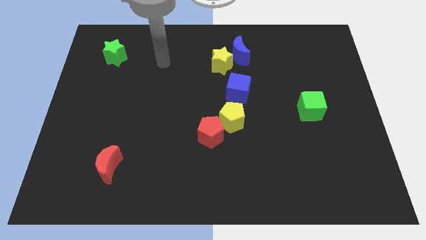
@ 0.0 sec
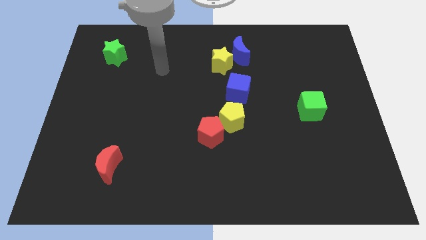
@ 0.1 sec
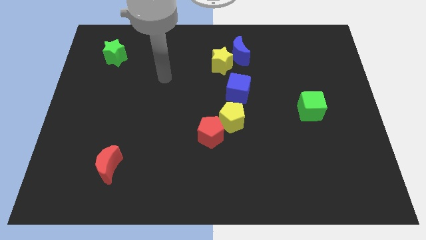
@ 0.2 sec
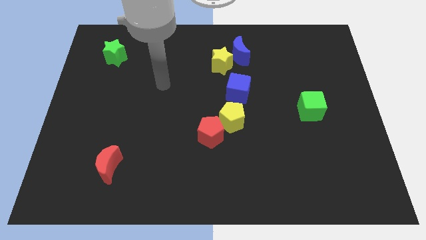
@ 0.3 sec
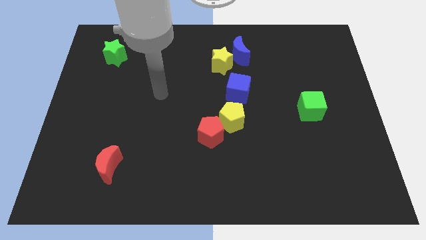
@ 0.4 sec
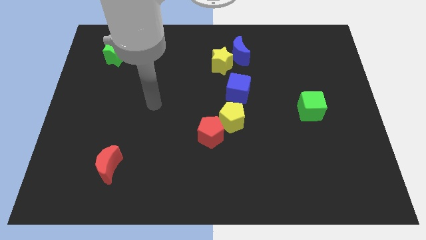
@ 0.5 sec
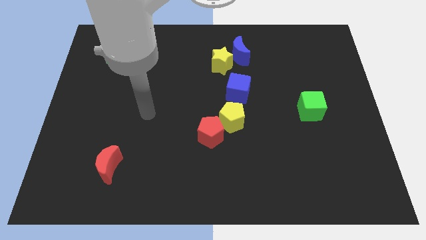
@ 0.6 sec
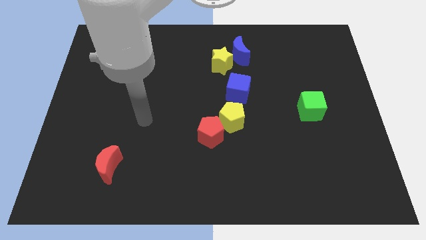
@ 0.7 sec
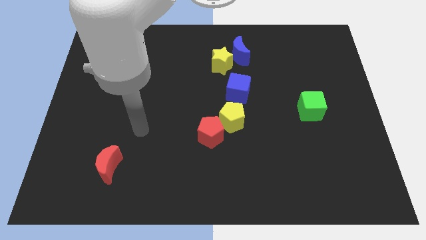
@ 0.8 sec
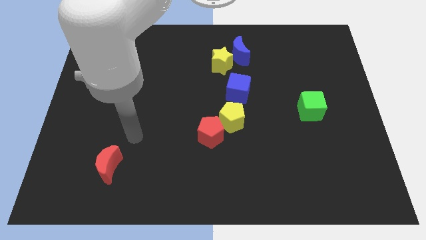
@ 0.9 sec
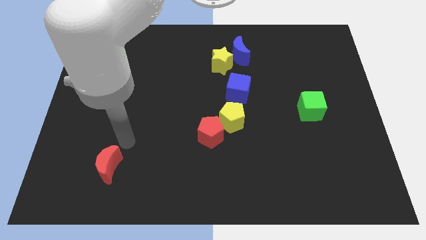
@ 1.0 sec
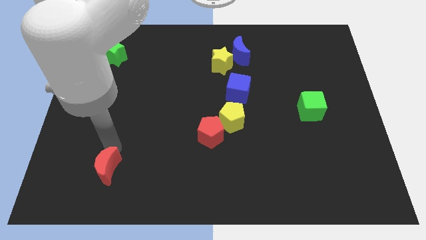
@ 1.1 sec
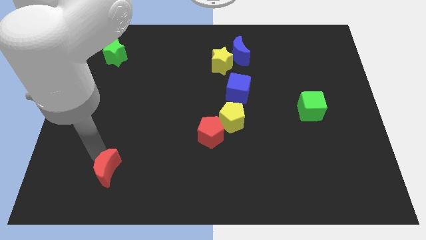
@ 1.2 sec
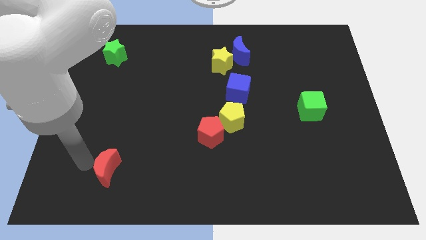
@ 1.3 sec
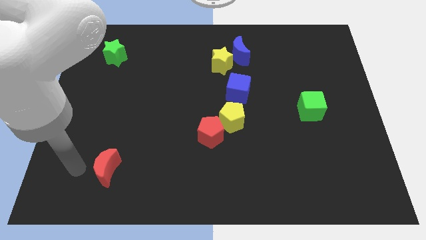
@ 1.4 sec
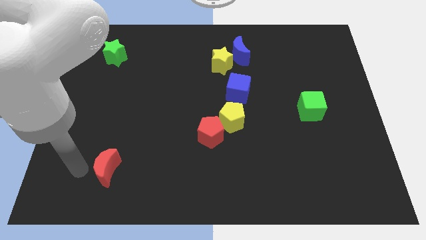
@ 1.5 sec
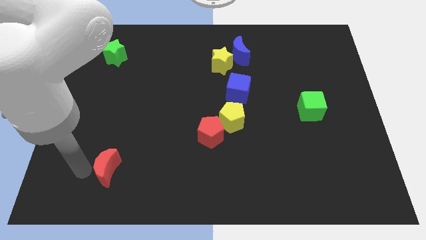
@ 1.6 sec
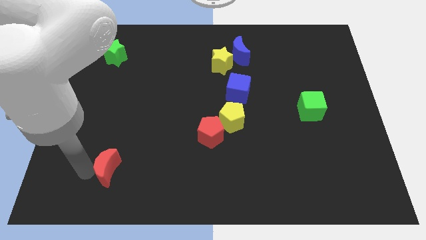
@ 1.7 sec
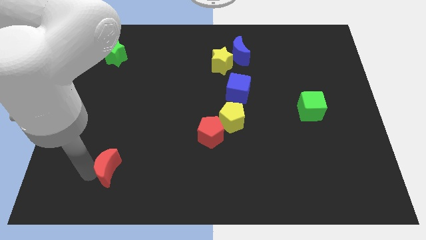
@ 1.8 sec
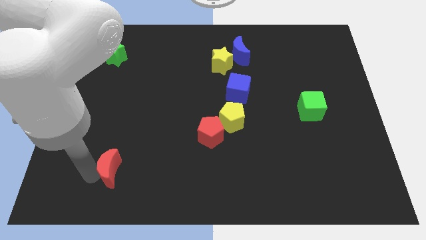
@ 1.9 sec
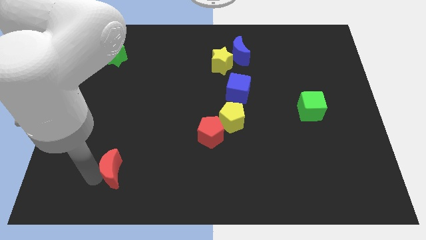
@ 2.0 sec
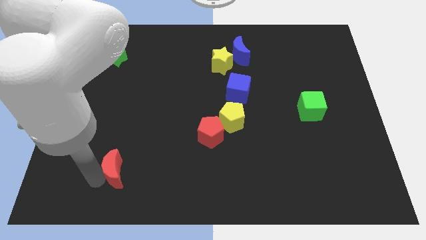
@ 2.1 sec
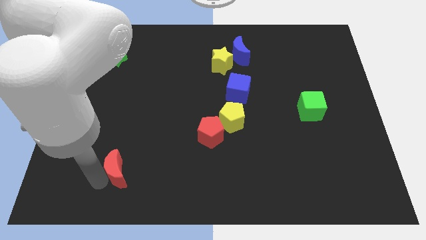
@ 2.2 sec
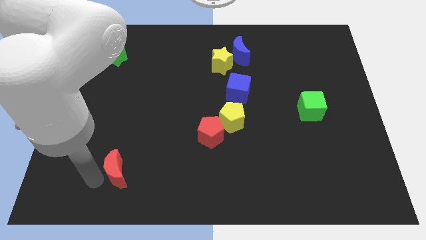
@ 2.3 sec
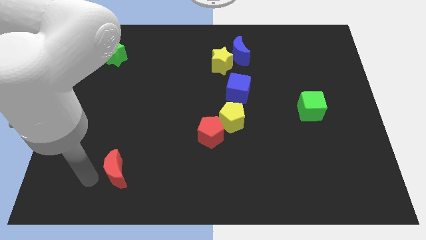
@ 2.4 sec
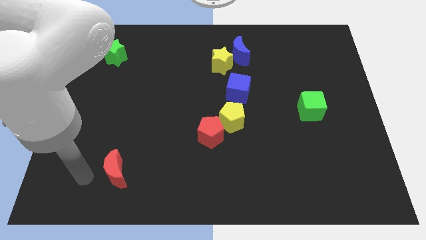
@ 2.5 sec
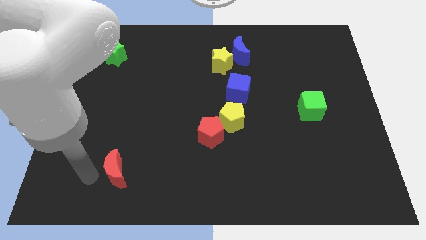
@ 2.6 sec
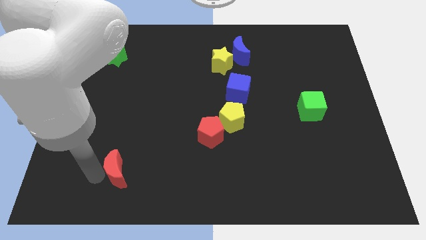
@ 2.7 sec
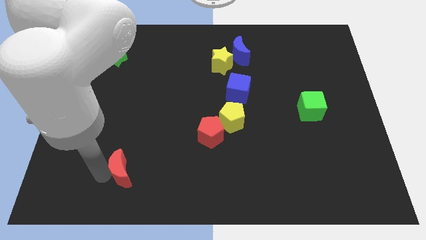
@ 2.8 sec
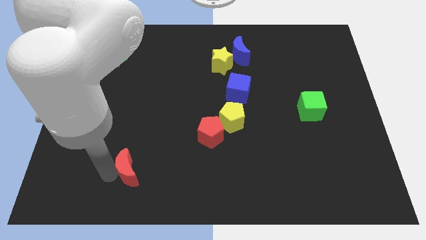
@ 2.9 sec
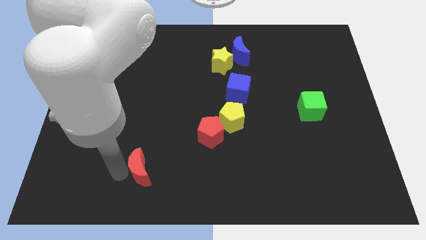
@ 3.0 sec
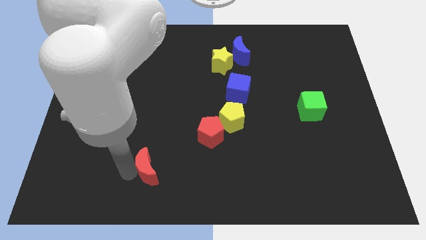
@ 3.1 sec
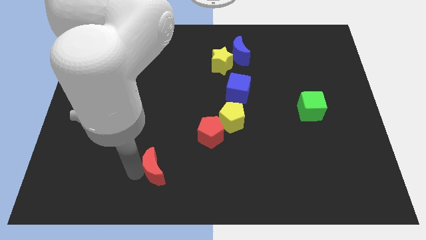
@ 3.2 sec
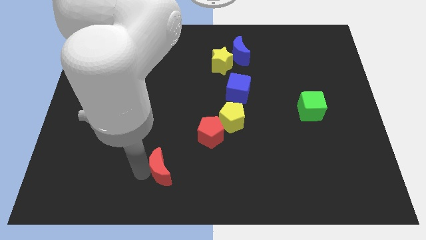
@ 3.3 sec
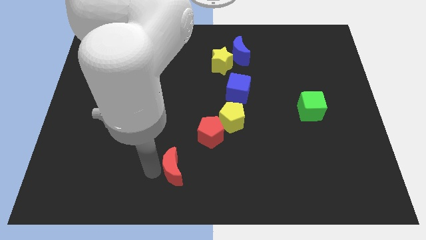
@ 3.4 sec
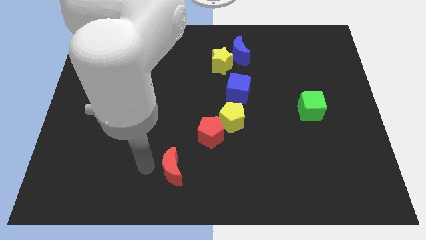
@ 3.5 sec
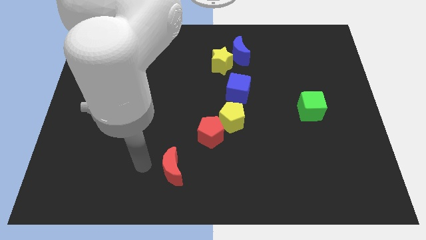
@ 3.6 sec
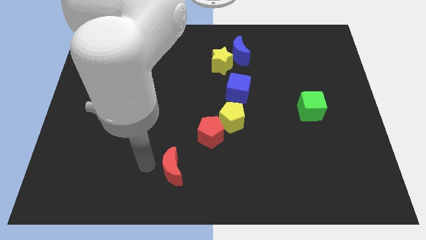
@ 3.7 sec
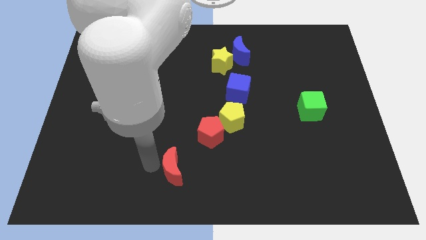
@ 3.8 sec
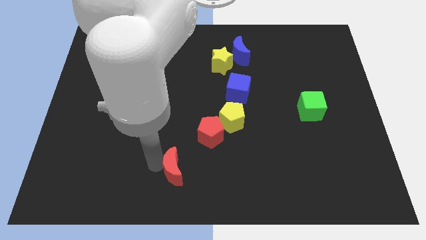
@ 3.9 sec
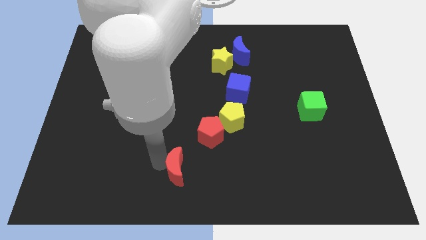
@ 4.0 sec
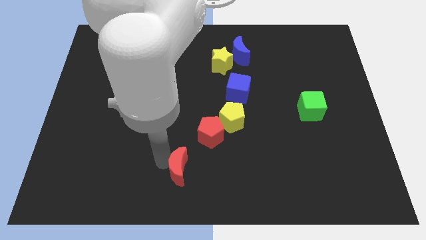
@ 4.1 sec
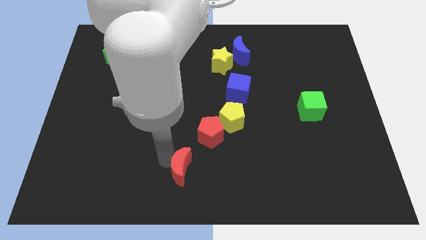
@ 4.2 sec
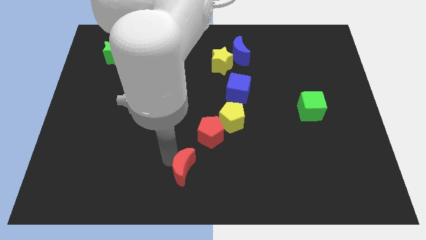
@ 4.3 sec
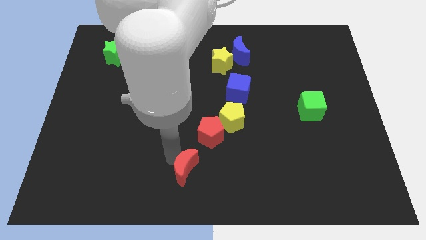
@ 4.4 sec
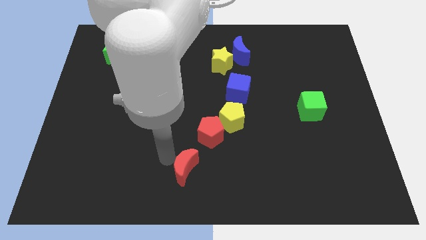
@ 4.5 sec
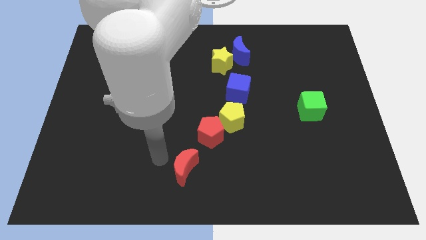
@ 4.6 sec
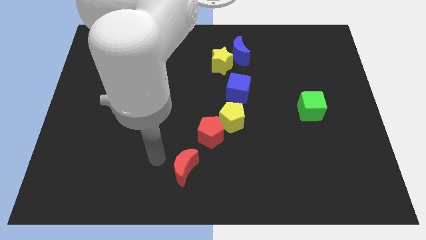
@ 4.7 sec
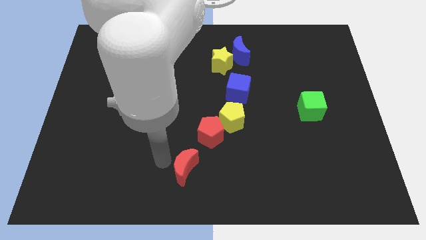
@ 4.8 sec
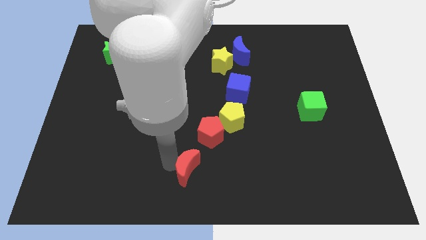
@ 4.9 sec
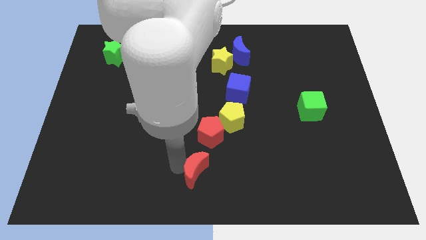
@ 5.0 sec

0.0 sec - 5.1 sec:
slide the red moon to the bottom of the red pentagon

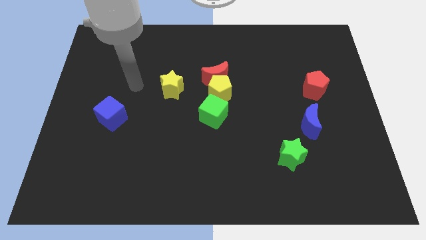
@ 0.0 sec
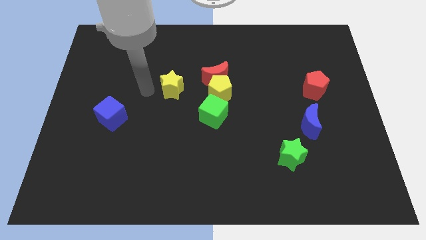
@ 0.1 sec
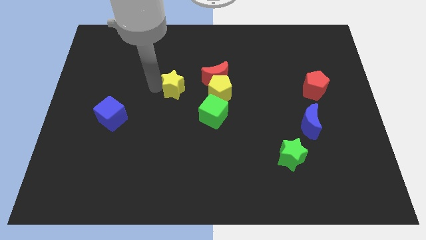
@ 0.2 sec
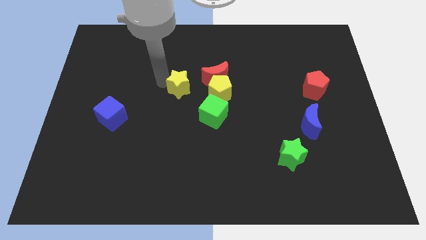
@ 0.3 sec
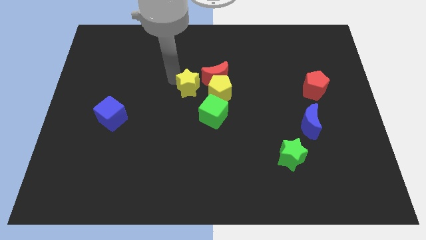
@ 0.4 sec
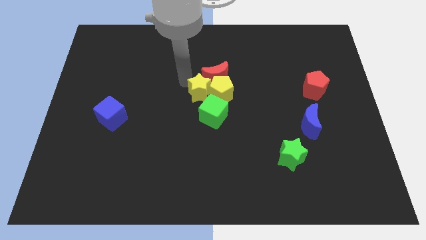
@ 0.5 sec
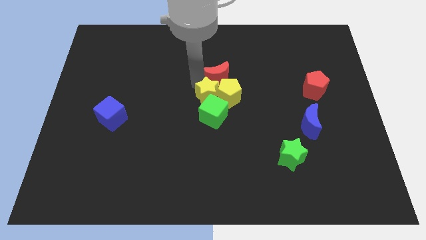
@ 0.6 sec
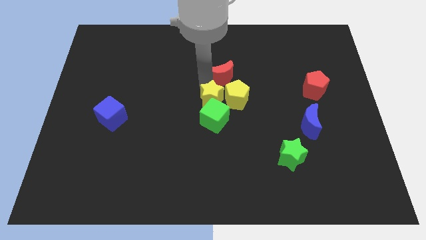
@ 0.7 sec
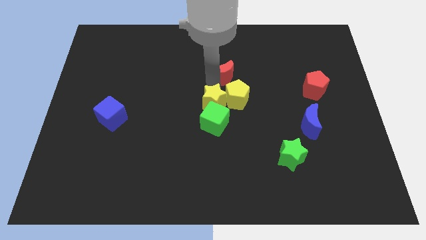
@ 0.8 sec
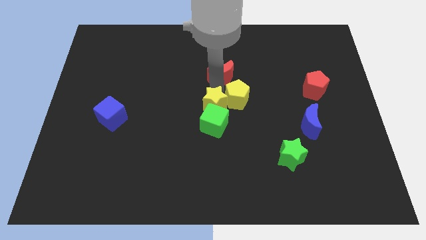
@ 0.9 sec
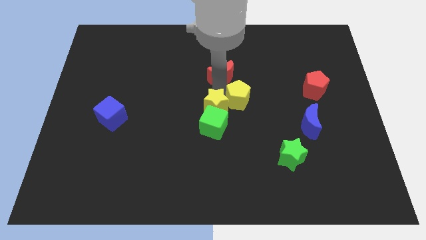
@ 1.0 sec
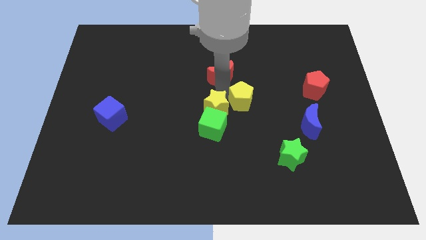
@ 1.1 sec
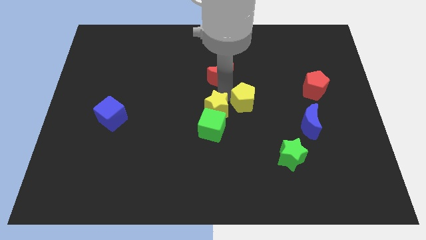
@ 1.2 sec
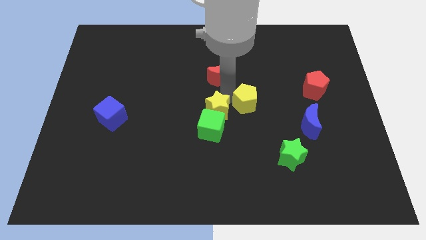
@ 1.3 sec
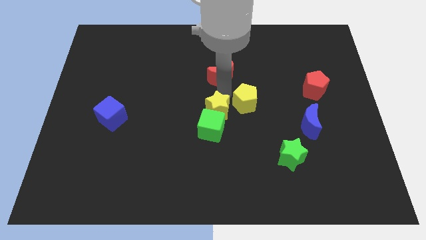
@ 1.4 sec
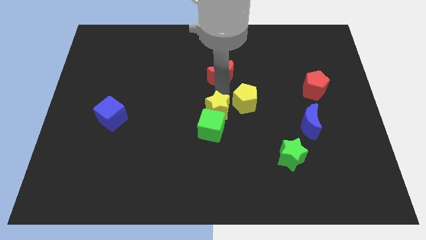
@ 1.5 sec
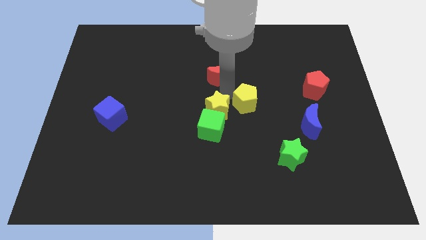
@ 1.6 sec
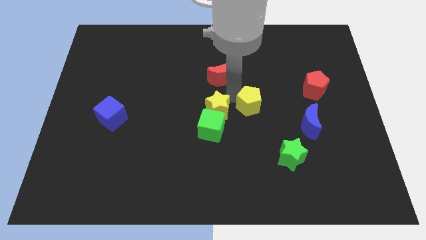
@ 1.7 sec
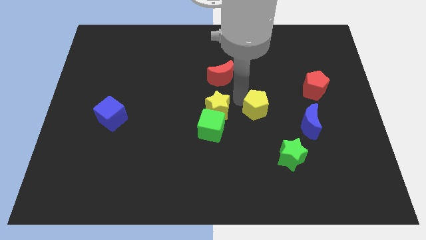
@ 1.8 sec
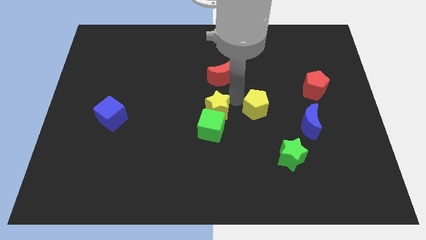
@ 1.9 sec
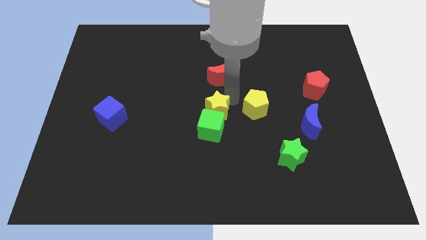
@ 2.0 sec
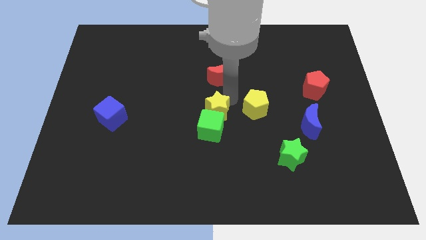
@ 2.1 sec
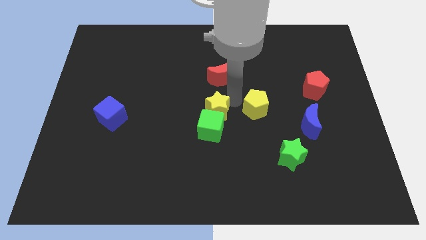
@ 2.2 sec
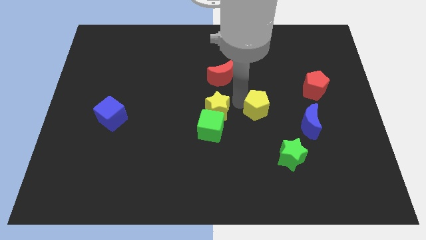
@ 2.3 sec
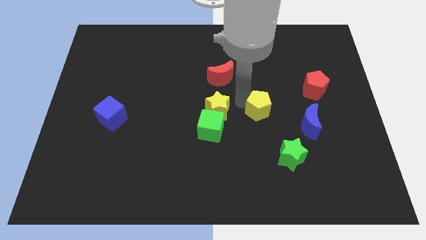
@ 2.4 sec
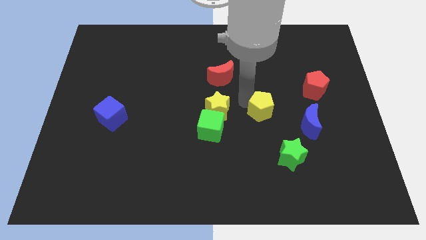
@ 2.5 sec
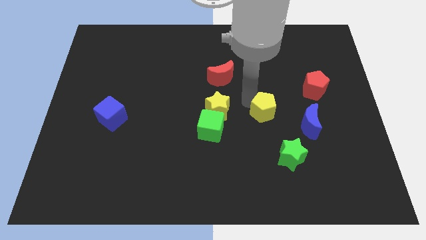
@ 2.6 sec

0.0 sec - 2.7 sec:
slide the yellow pentagon above the green star
